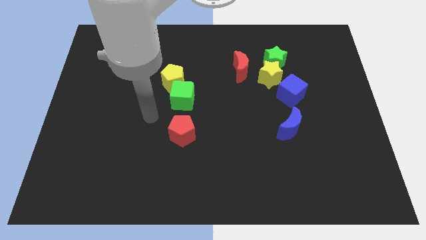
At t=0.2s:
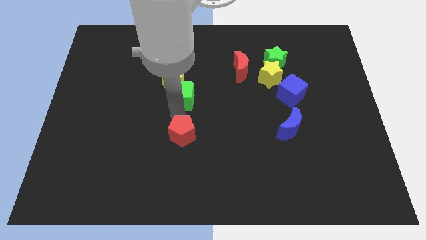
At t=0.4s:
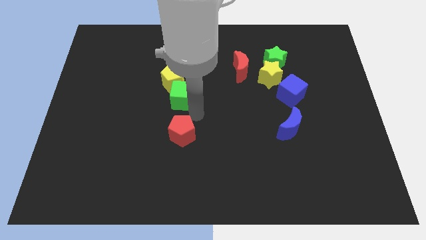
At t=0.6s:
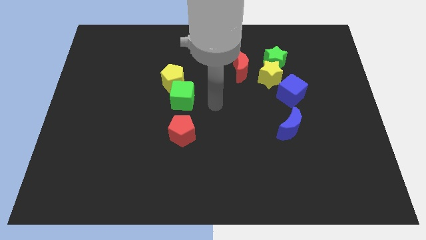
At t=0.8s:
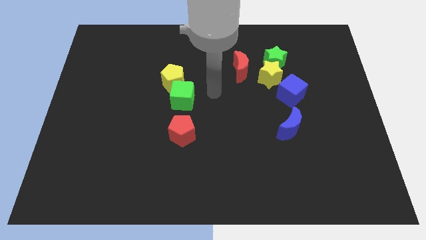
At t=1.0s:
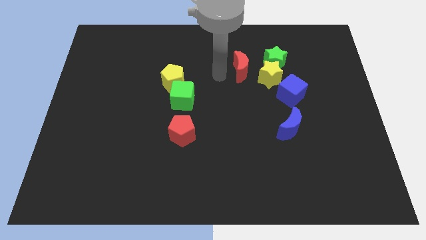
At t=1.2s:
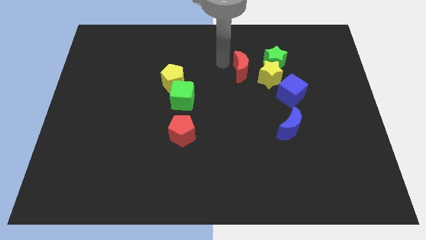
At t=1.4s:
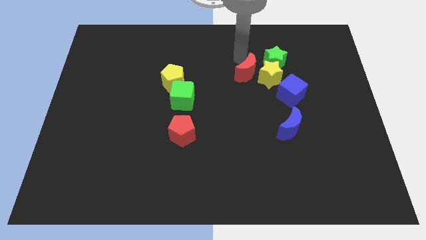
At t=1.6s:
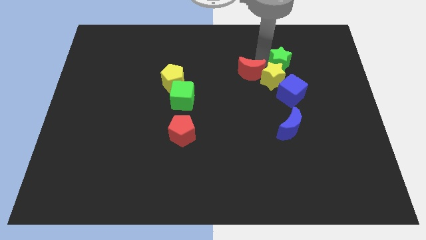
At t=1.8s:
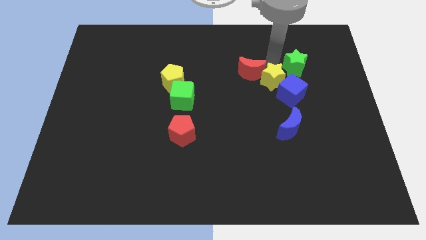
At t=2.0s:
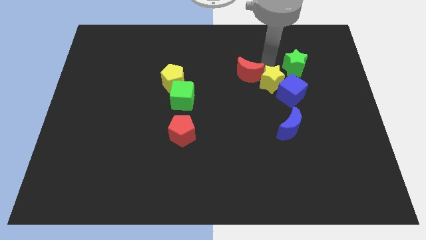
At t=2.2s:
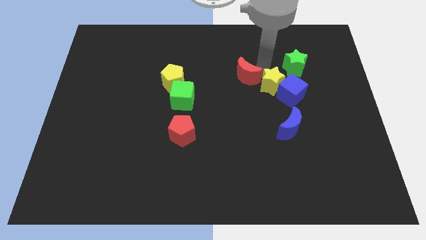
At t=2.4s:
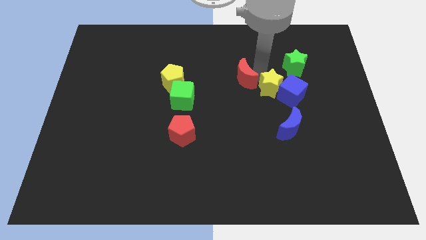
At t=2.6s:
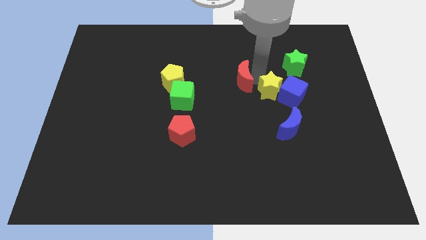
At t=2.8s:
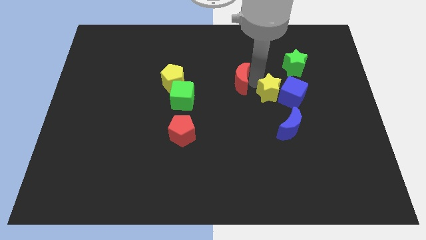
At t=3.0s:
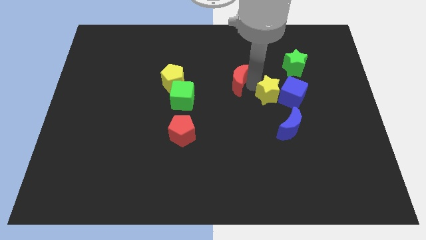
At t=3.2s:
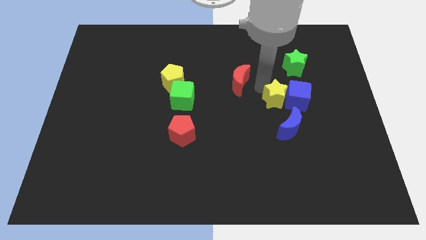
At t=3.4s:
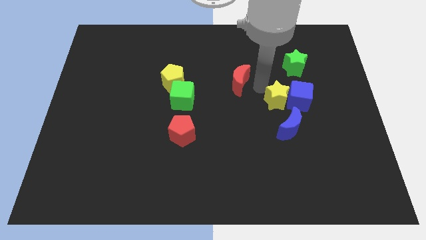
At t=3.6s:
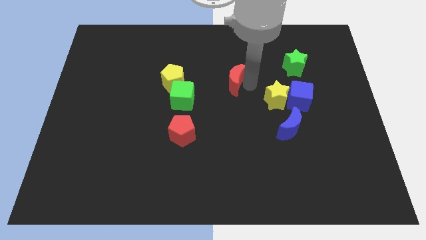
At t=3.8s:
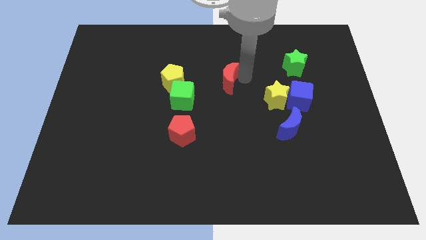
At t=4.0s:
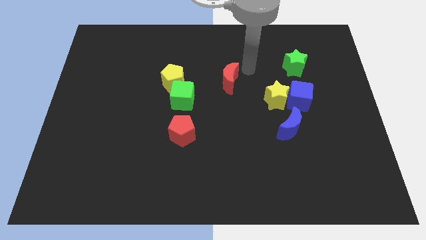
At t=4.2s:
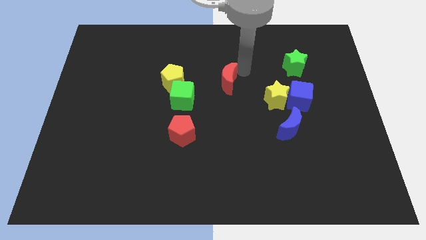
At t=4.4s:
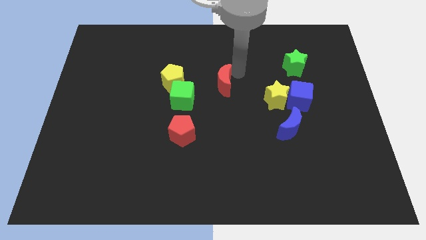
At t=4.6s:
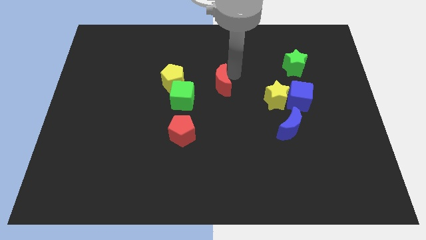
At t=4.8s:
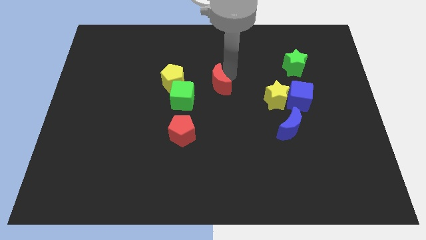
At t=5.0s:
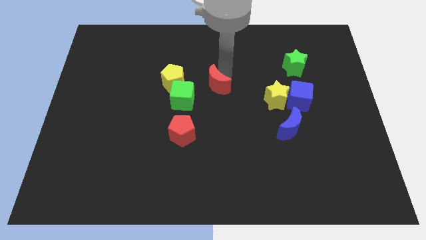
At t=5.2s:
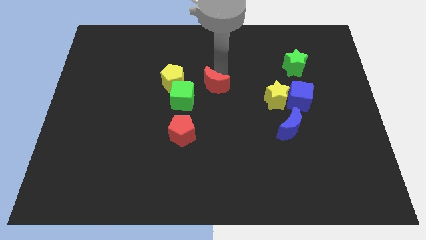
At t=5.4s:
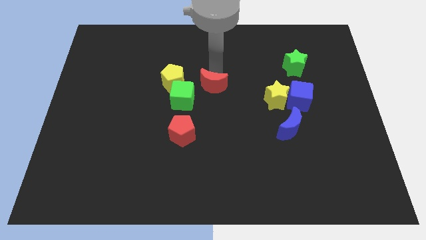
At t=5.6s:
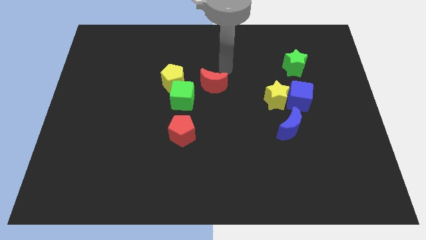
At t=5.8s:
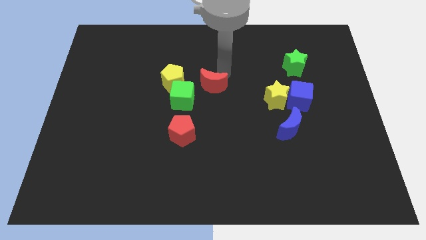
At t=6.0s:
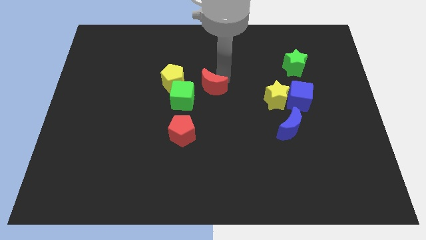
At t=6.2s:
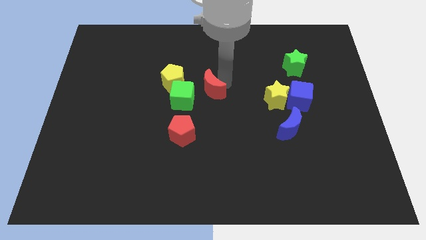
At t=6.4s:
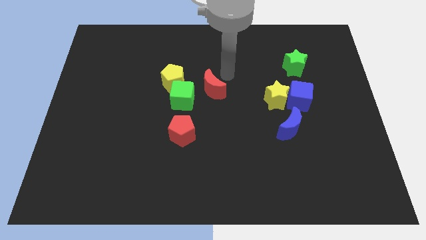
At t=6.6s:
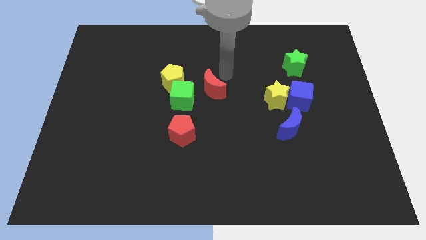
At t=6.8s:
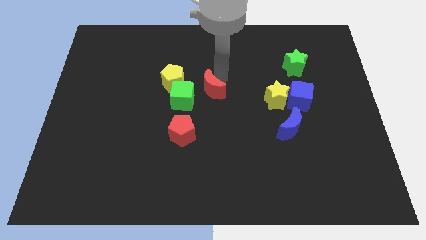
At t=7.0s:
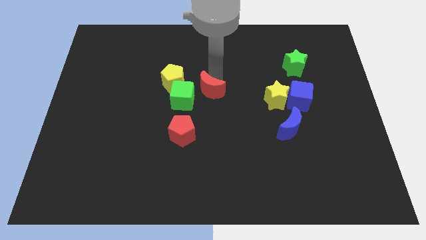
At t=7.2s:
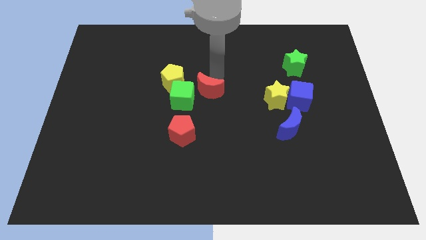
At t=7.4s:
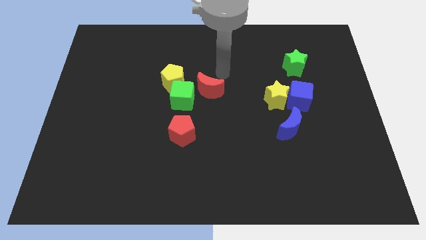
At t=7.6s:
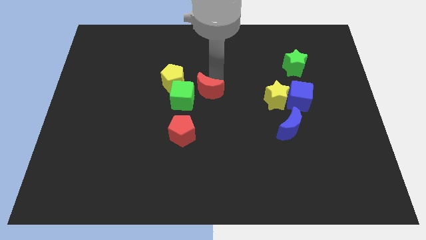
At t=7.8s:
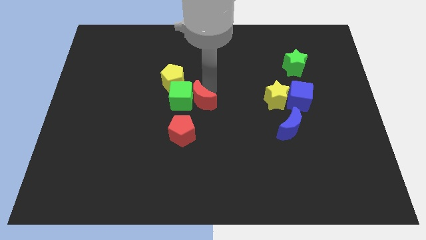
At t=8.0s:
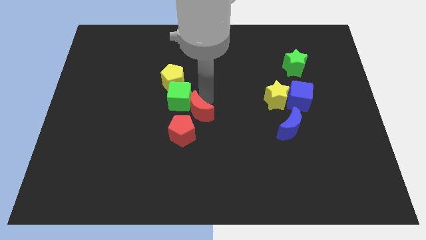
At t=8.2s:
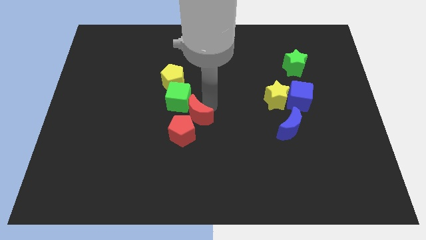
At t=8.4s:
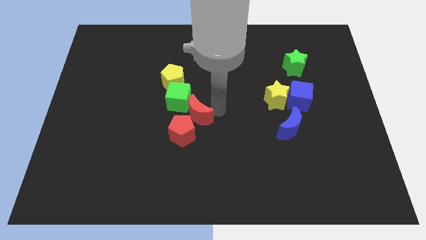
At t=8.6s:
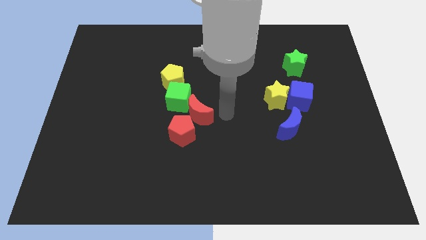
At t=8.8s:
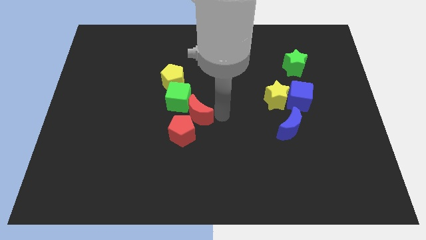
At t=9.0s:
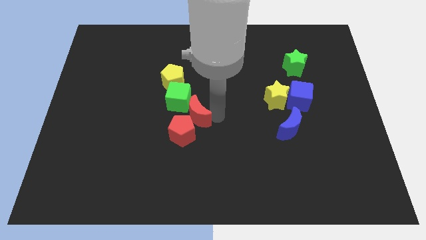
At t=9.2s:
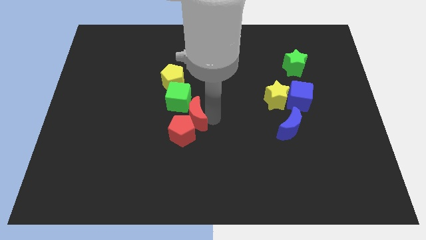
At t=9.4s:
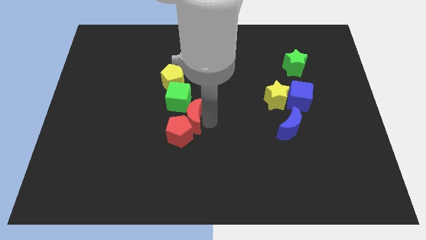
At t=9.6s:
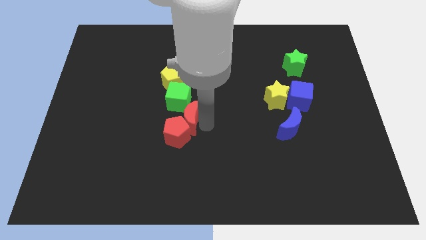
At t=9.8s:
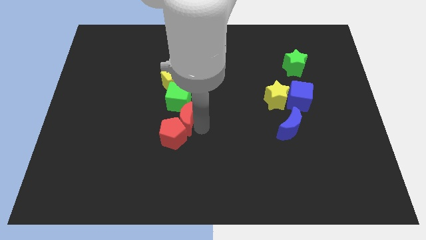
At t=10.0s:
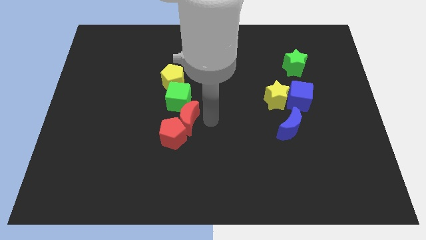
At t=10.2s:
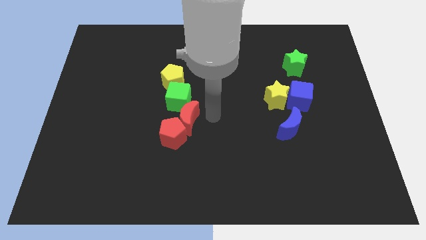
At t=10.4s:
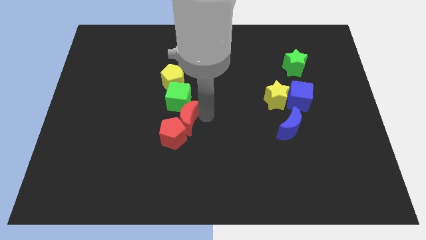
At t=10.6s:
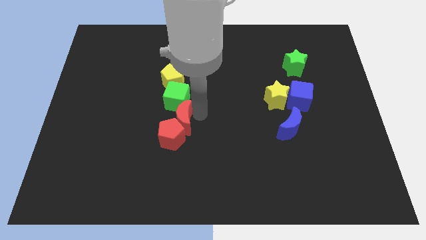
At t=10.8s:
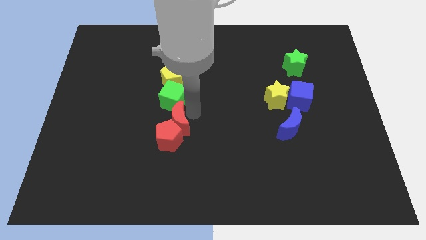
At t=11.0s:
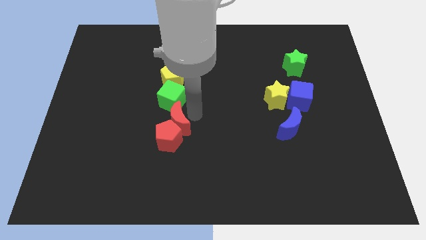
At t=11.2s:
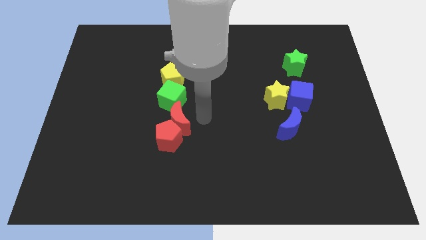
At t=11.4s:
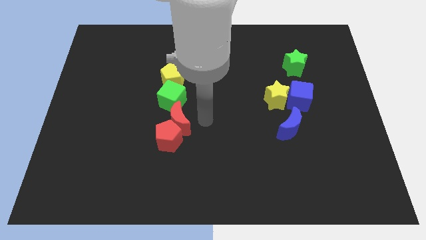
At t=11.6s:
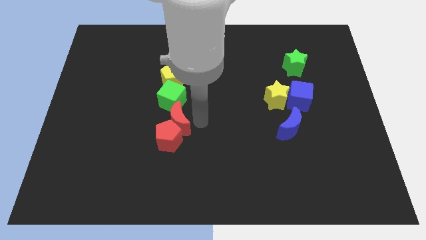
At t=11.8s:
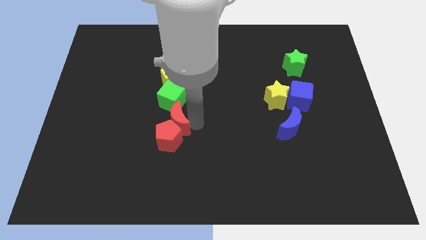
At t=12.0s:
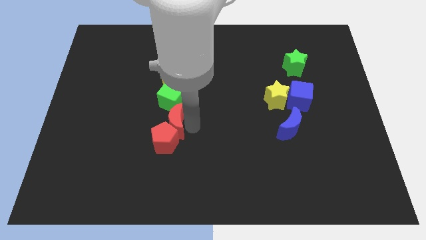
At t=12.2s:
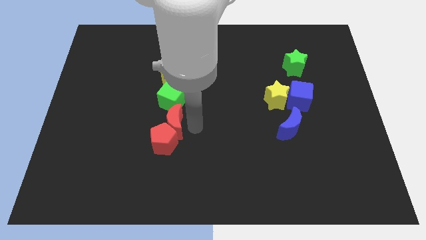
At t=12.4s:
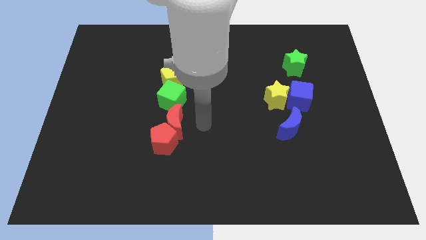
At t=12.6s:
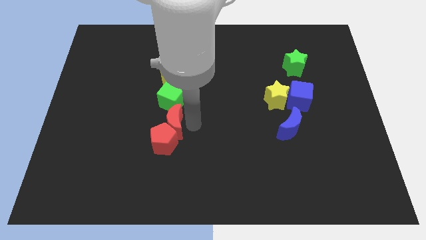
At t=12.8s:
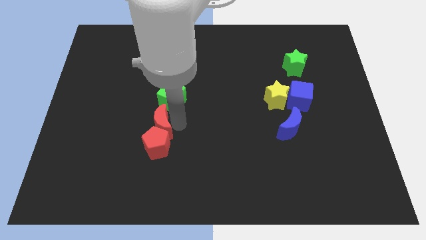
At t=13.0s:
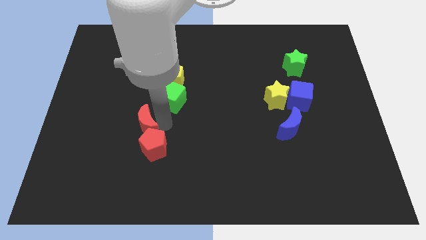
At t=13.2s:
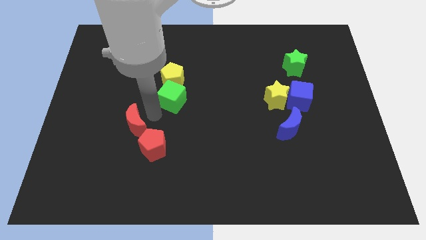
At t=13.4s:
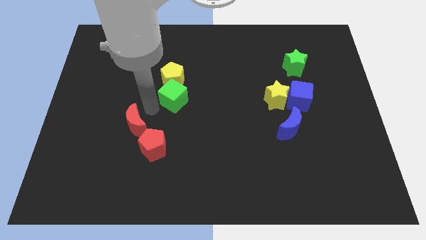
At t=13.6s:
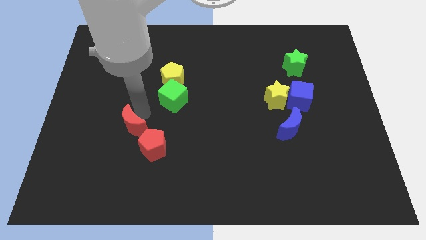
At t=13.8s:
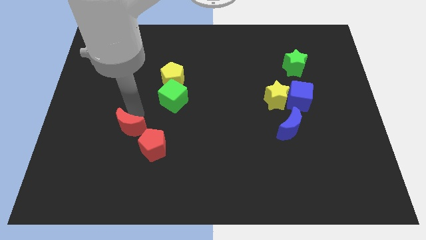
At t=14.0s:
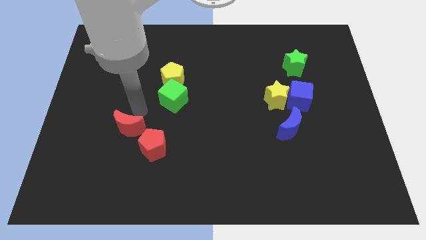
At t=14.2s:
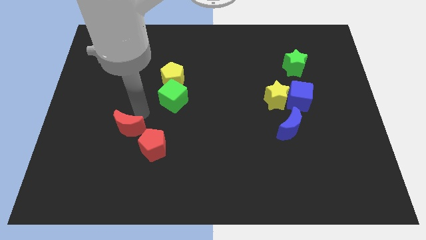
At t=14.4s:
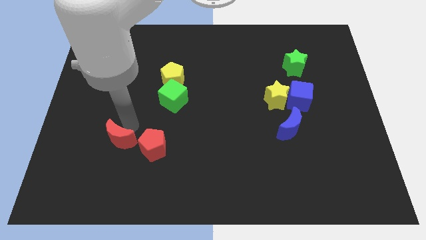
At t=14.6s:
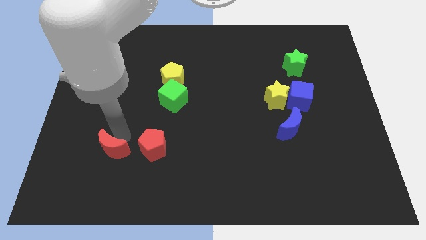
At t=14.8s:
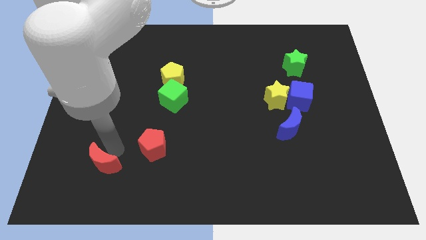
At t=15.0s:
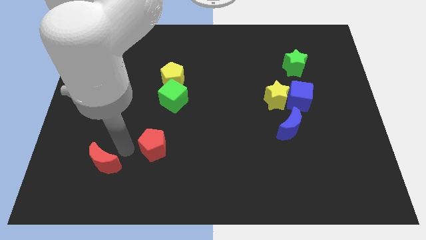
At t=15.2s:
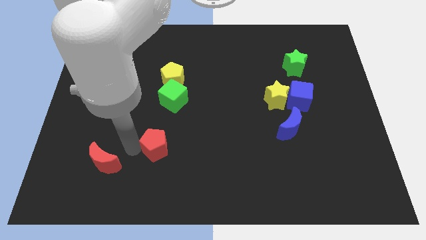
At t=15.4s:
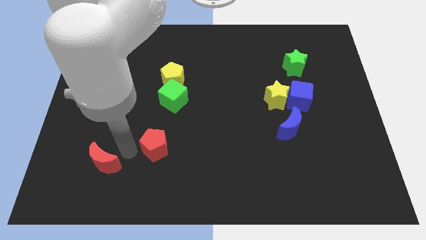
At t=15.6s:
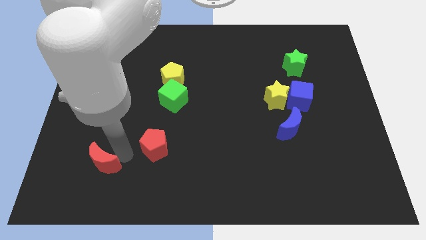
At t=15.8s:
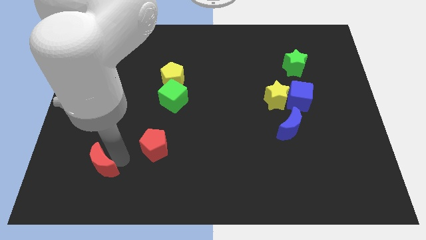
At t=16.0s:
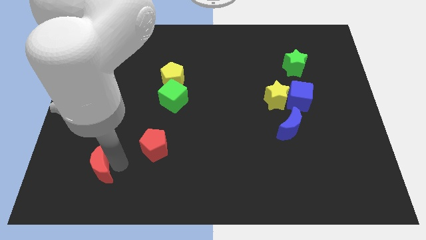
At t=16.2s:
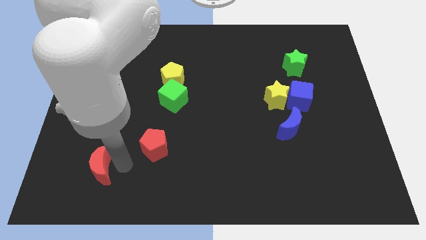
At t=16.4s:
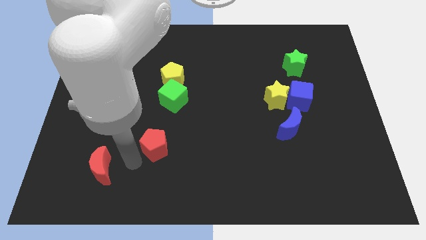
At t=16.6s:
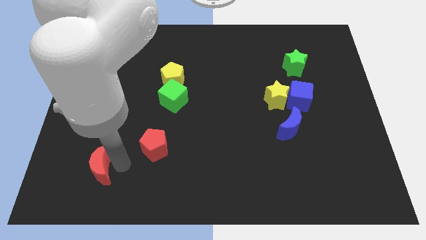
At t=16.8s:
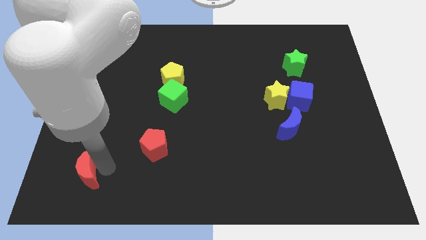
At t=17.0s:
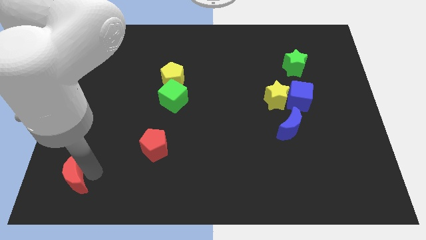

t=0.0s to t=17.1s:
slide the red moon to the bottom left
